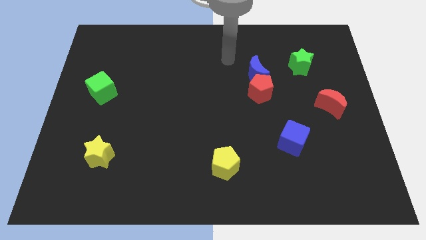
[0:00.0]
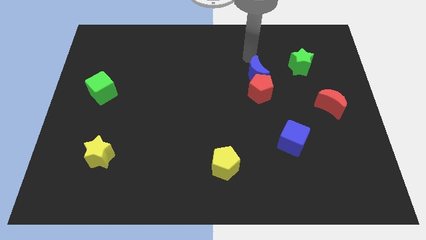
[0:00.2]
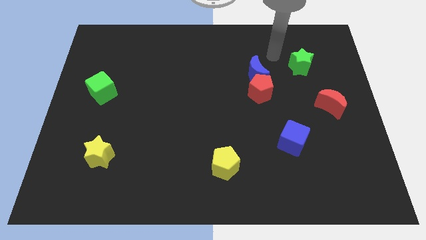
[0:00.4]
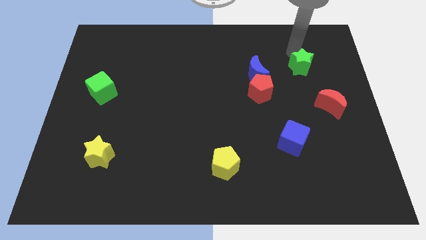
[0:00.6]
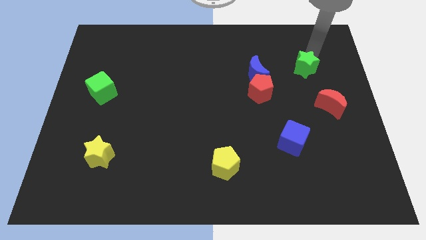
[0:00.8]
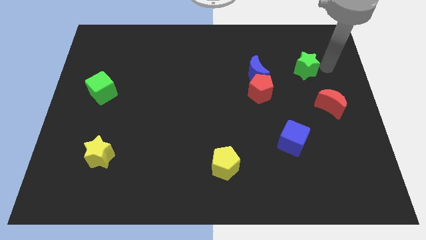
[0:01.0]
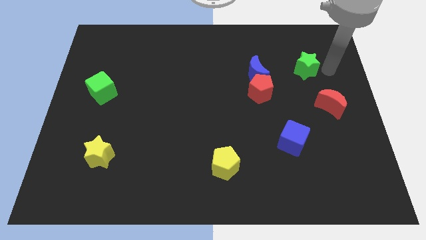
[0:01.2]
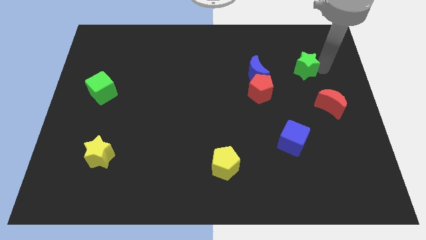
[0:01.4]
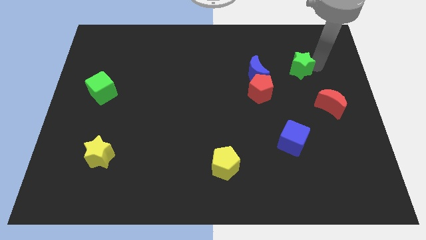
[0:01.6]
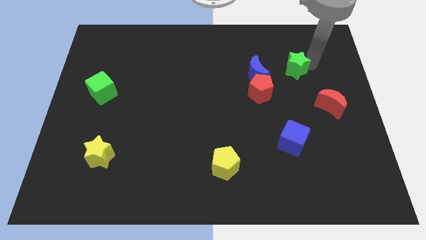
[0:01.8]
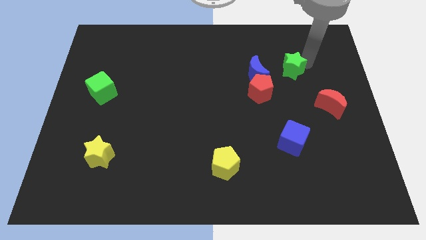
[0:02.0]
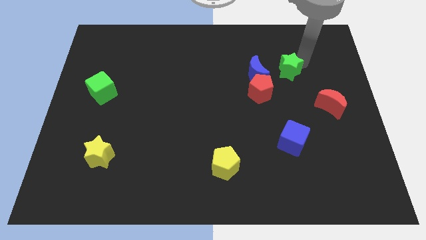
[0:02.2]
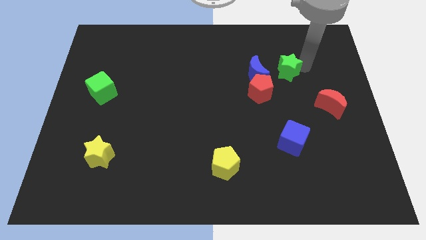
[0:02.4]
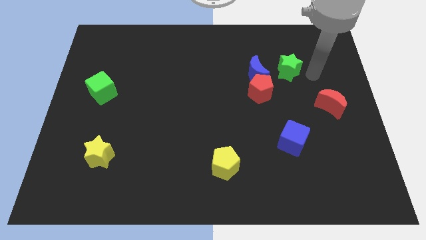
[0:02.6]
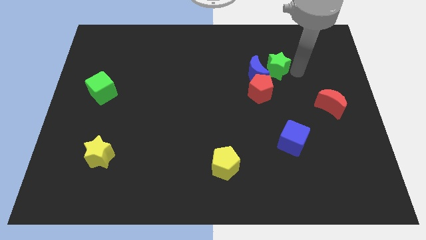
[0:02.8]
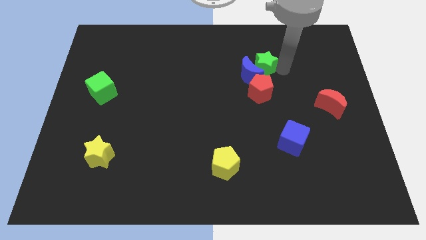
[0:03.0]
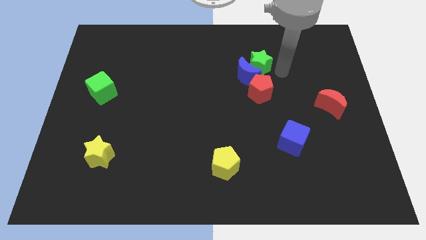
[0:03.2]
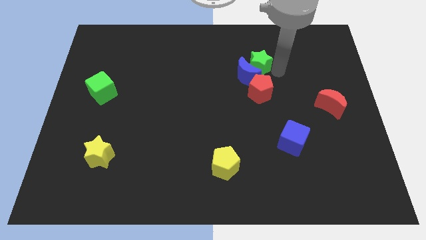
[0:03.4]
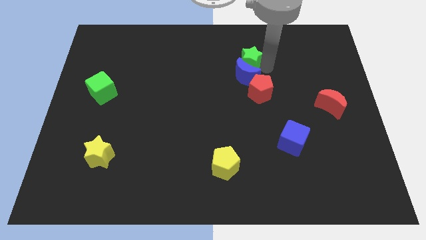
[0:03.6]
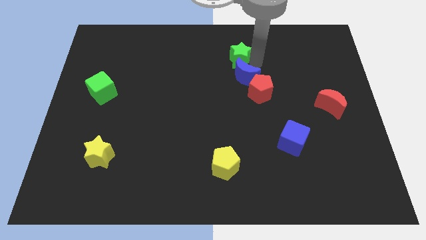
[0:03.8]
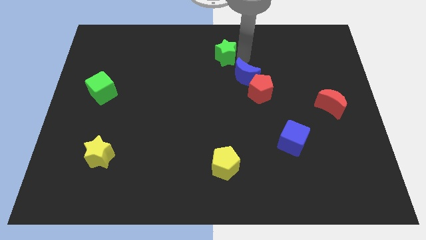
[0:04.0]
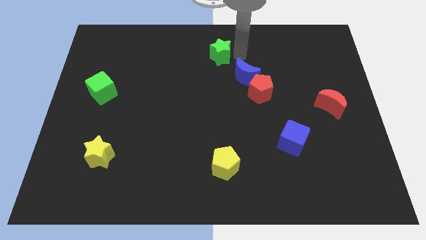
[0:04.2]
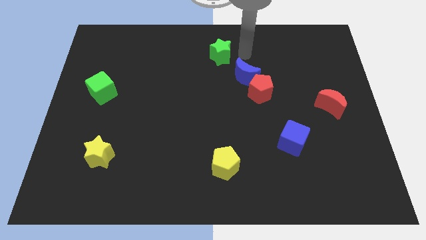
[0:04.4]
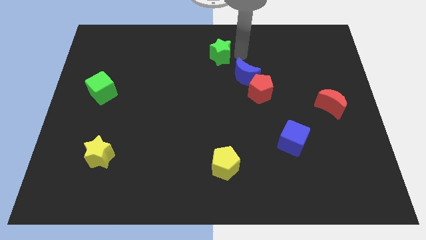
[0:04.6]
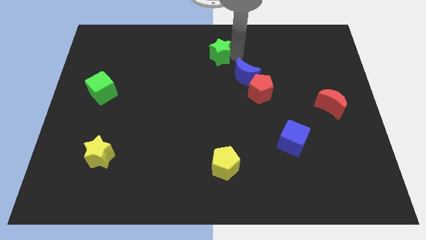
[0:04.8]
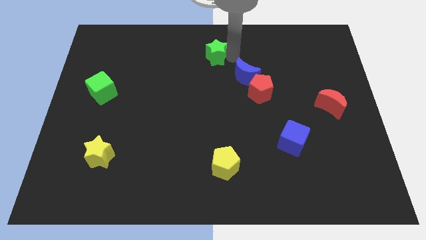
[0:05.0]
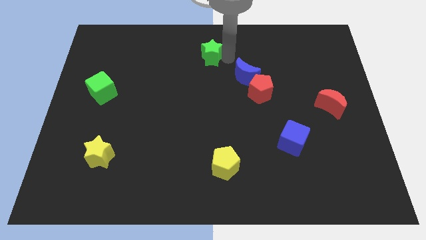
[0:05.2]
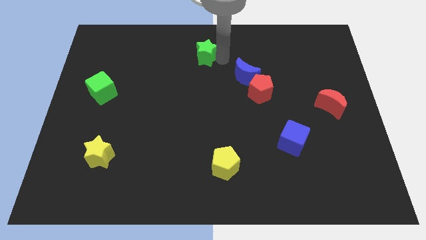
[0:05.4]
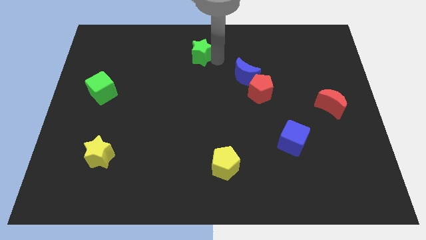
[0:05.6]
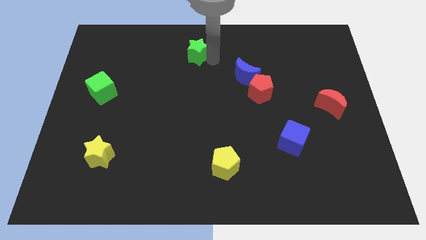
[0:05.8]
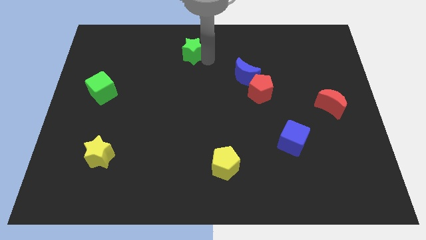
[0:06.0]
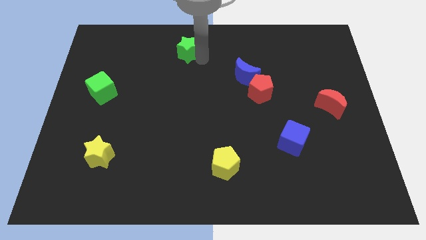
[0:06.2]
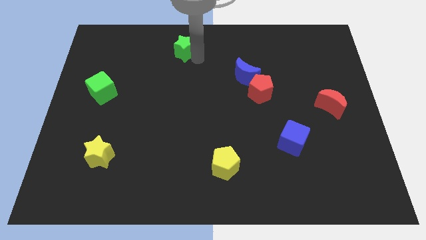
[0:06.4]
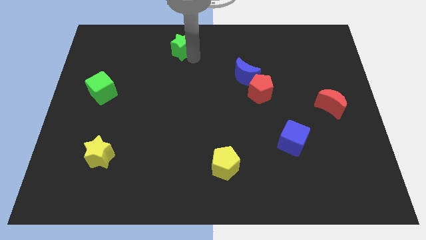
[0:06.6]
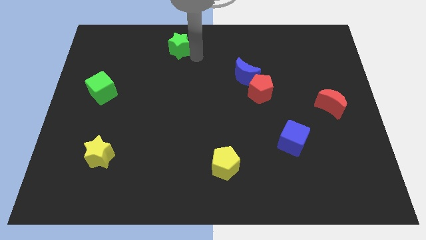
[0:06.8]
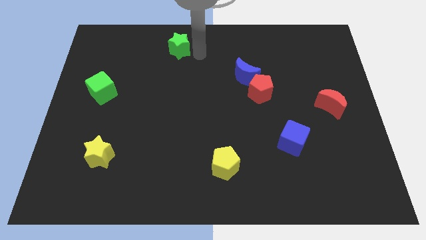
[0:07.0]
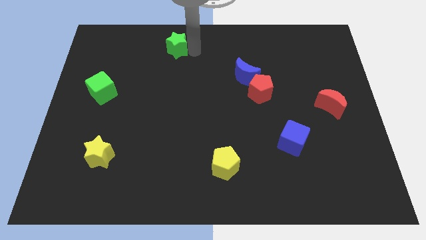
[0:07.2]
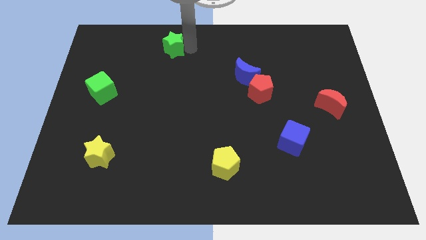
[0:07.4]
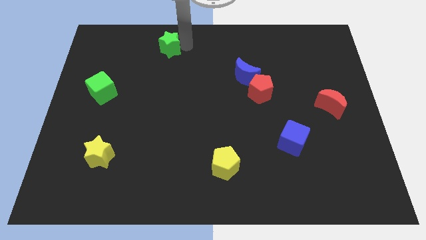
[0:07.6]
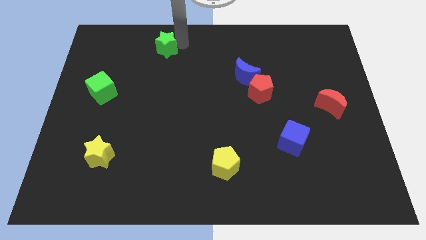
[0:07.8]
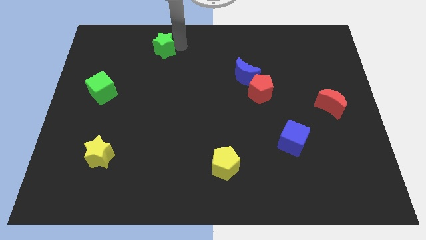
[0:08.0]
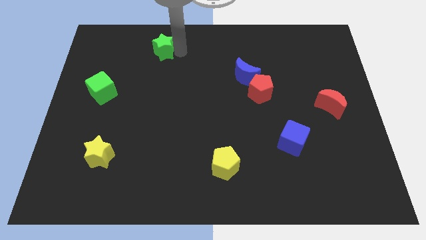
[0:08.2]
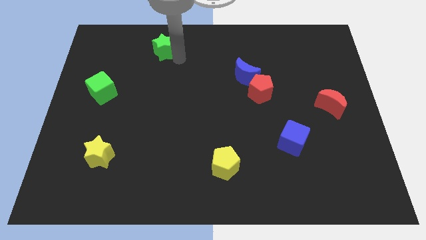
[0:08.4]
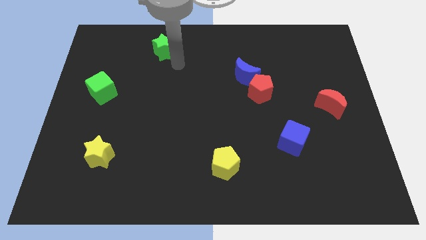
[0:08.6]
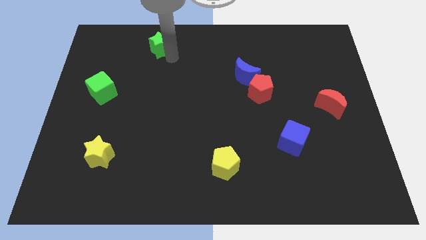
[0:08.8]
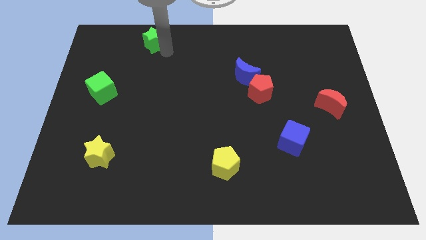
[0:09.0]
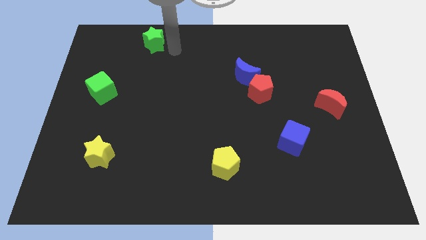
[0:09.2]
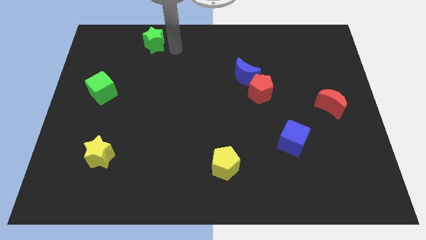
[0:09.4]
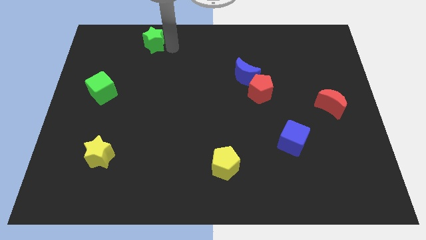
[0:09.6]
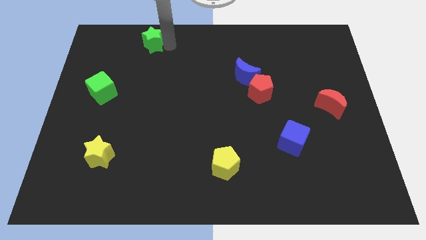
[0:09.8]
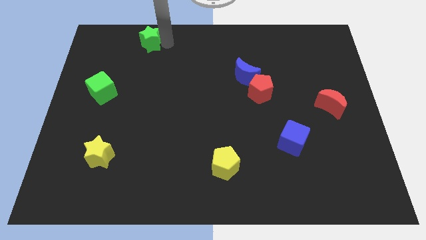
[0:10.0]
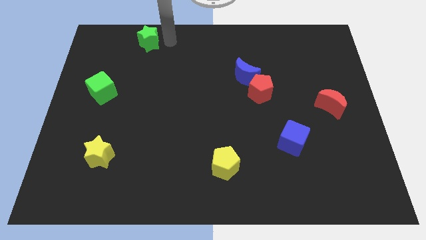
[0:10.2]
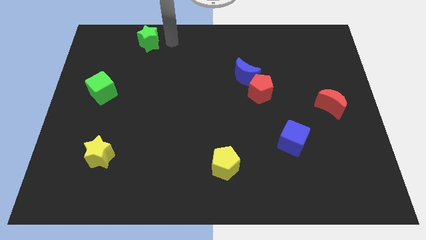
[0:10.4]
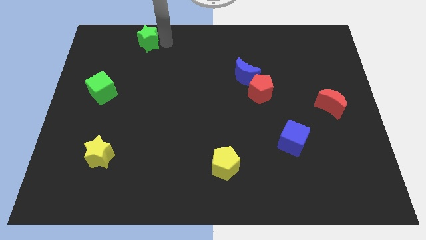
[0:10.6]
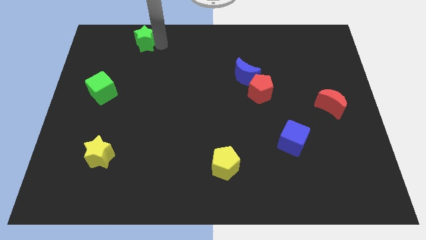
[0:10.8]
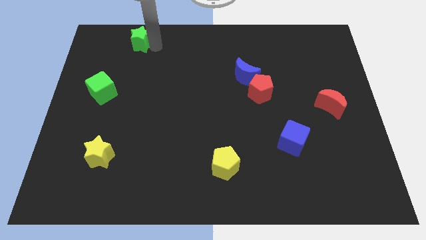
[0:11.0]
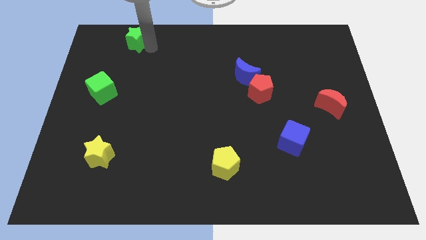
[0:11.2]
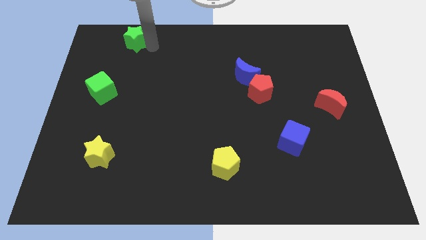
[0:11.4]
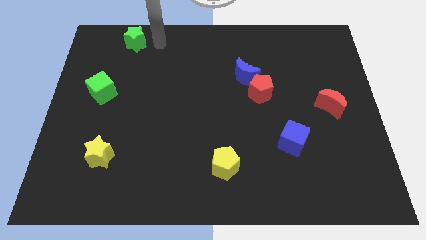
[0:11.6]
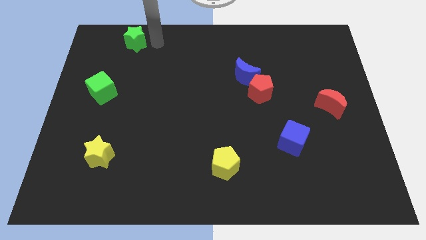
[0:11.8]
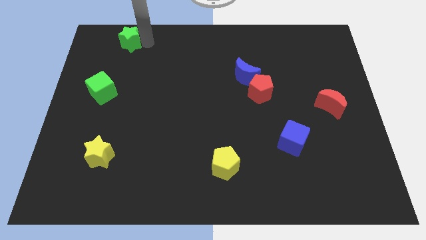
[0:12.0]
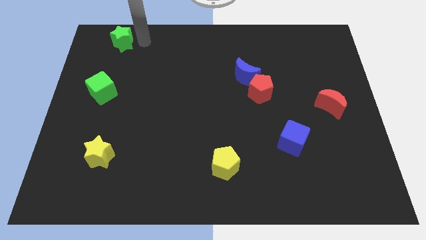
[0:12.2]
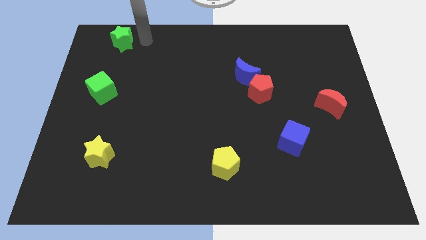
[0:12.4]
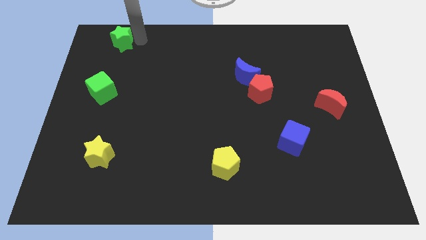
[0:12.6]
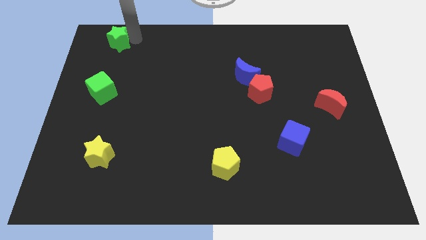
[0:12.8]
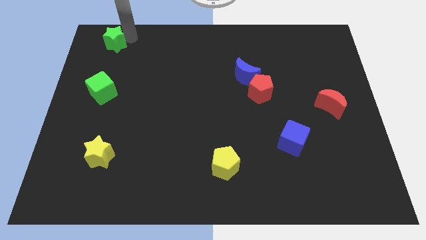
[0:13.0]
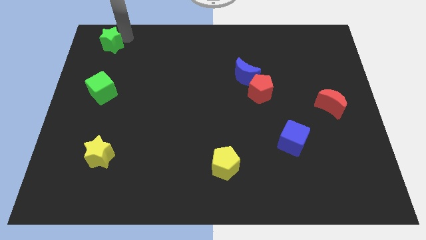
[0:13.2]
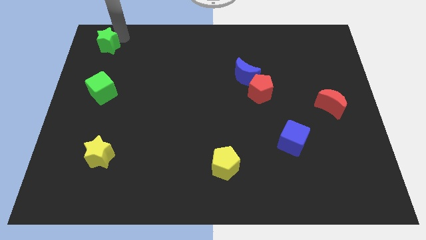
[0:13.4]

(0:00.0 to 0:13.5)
slide the green star to the upper left corner
